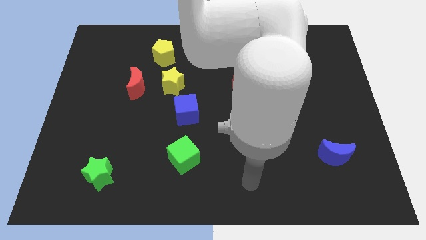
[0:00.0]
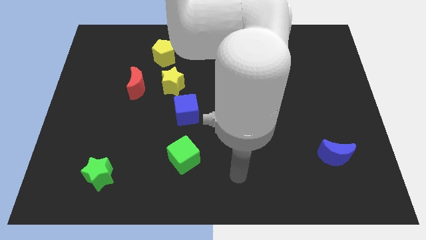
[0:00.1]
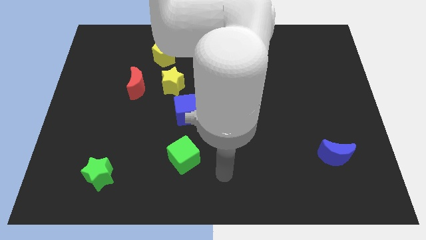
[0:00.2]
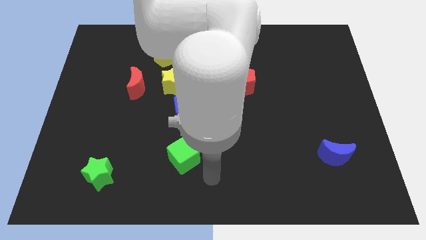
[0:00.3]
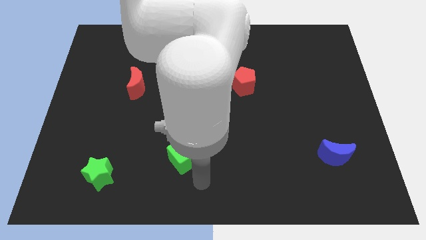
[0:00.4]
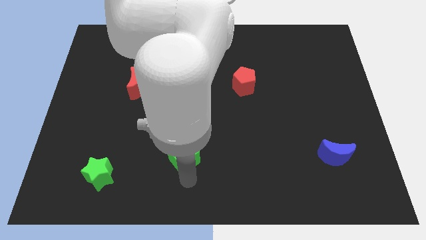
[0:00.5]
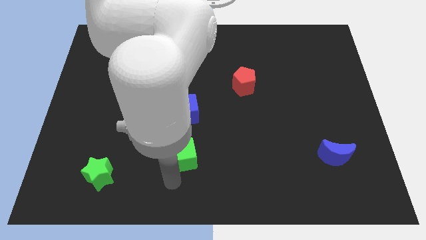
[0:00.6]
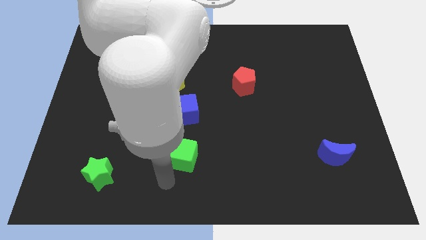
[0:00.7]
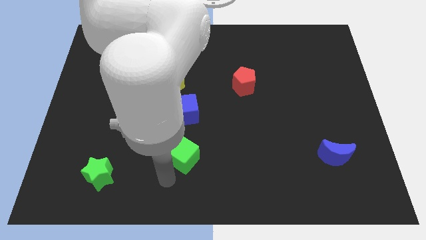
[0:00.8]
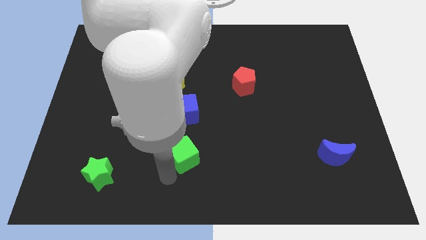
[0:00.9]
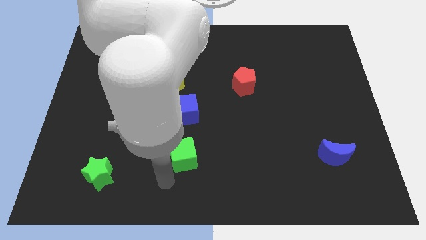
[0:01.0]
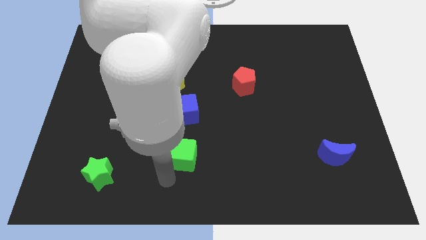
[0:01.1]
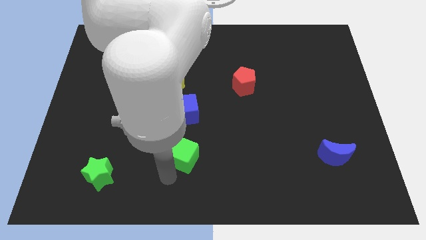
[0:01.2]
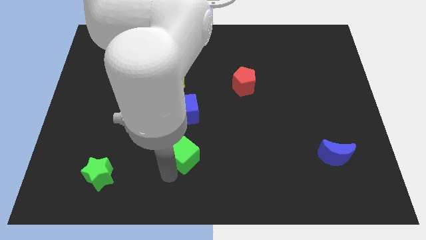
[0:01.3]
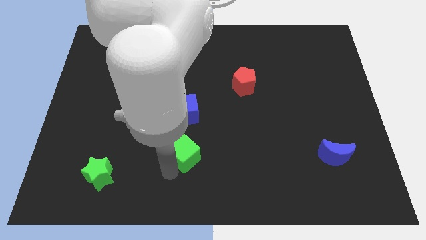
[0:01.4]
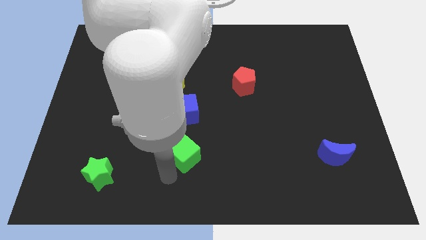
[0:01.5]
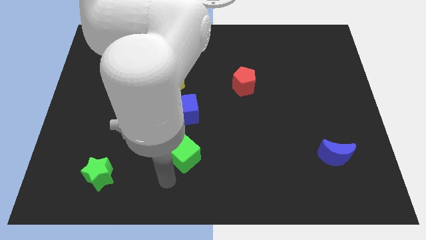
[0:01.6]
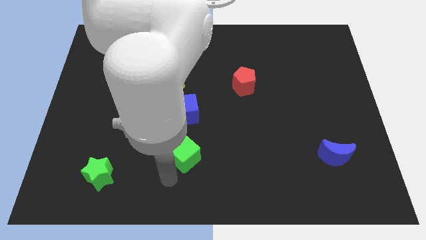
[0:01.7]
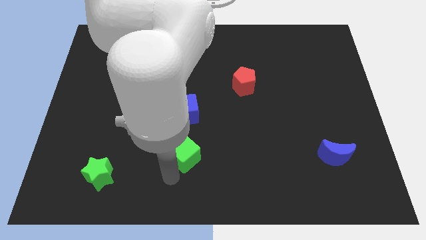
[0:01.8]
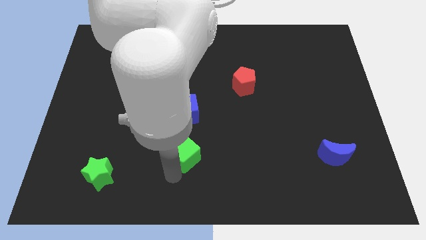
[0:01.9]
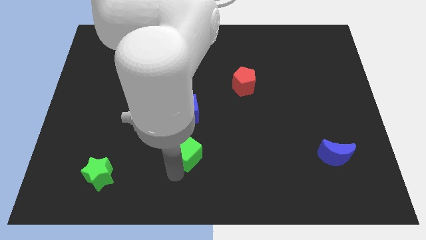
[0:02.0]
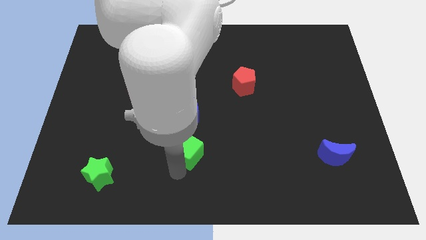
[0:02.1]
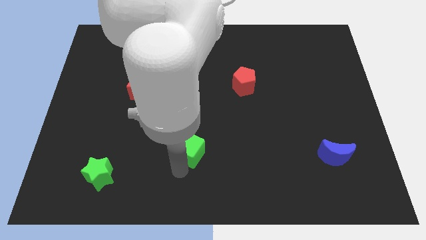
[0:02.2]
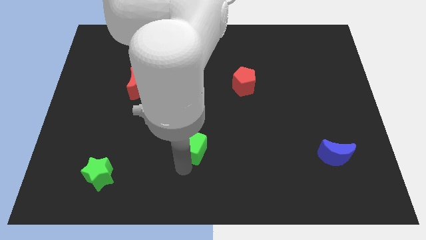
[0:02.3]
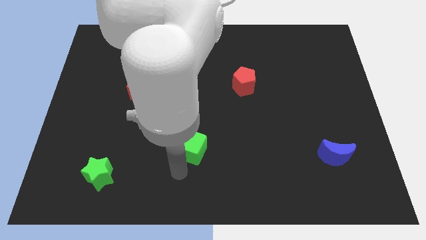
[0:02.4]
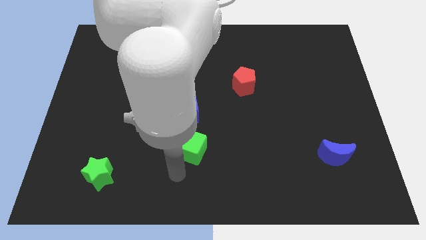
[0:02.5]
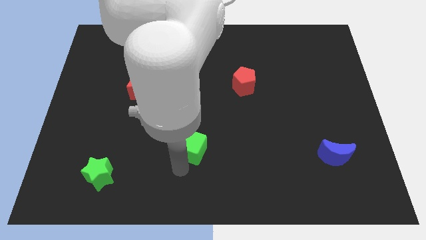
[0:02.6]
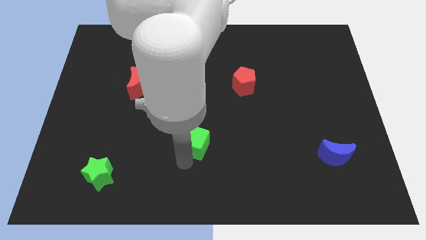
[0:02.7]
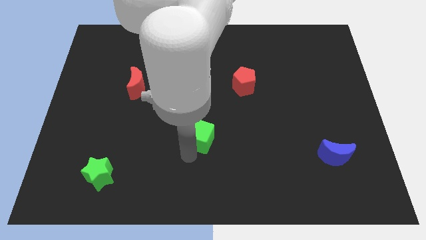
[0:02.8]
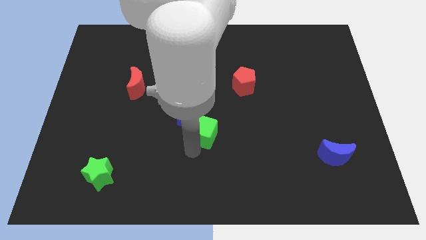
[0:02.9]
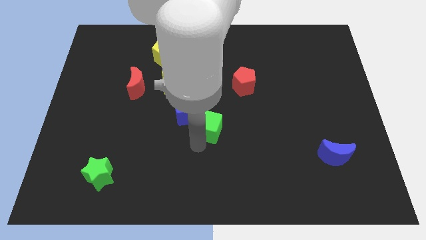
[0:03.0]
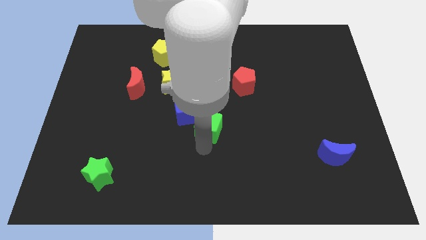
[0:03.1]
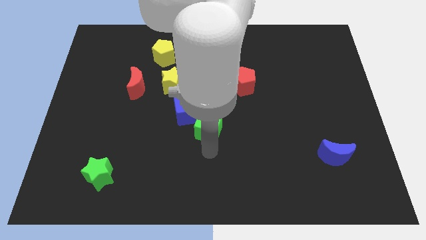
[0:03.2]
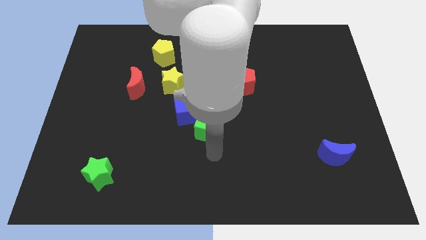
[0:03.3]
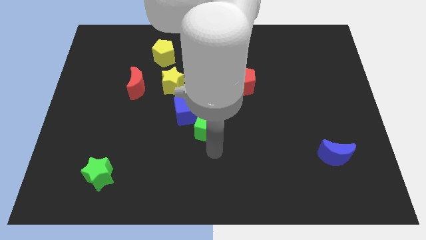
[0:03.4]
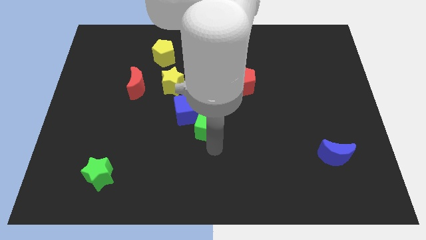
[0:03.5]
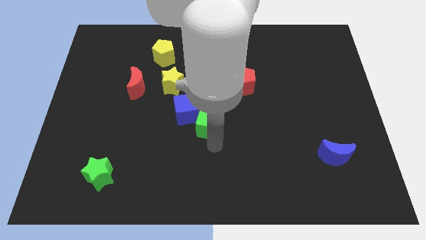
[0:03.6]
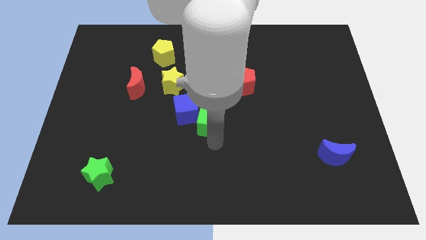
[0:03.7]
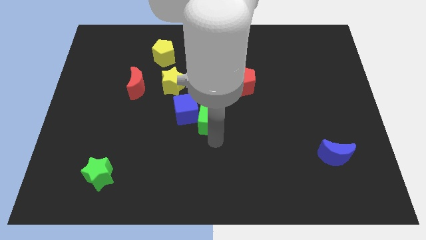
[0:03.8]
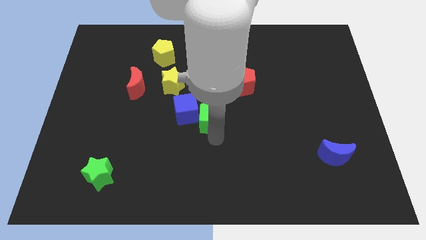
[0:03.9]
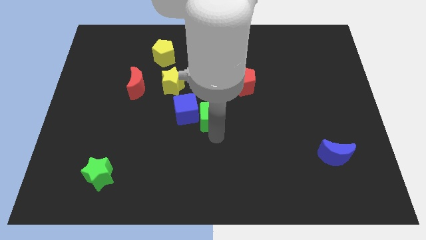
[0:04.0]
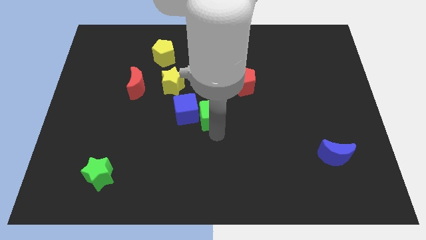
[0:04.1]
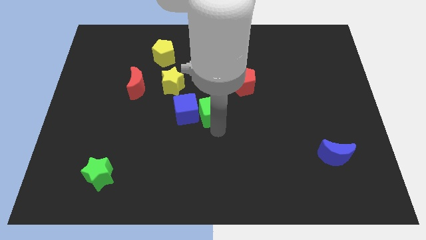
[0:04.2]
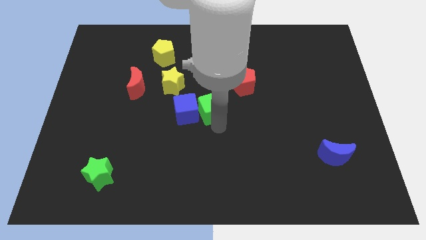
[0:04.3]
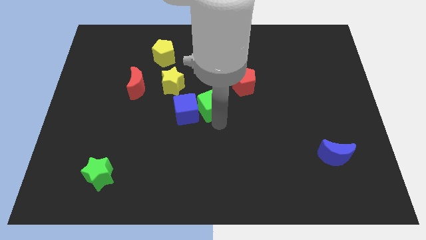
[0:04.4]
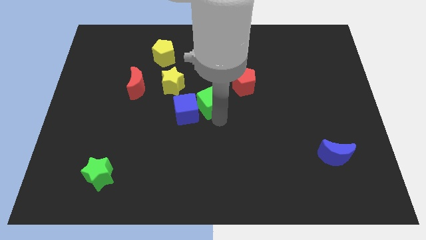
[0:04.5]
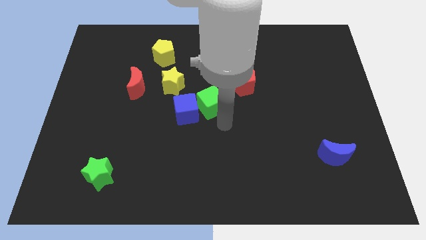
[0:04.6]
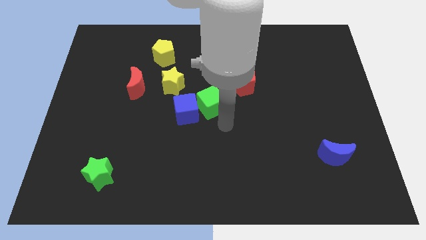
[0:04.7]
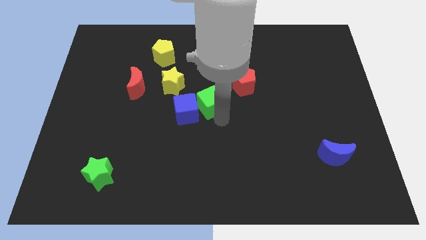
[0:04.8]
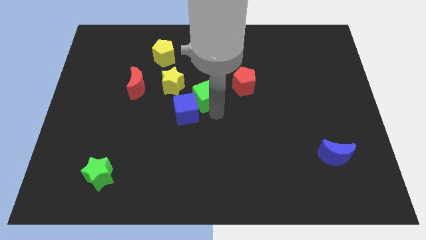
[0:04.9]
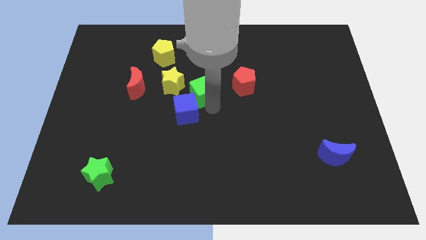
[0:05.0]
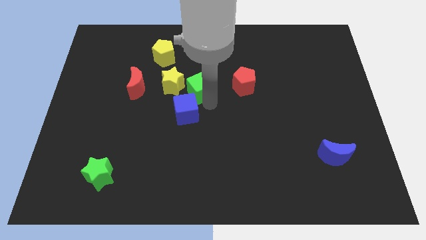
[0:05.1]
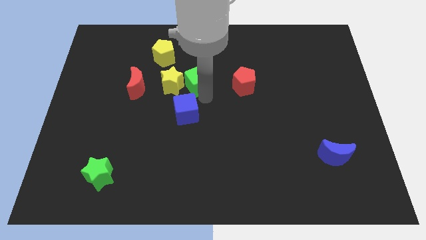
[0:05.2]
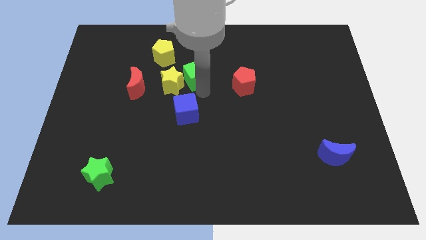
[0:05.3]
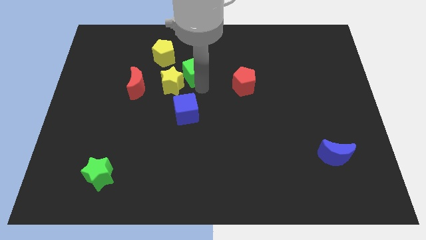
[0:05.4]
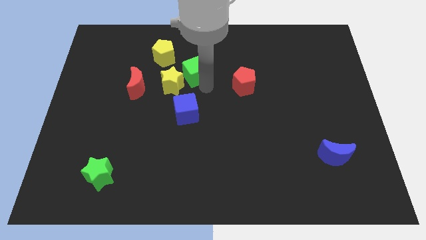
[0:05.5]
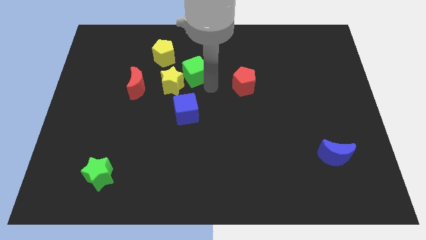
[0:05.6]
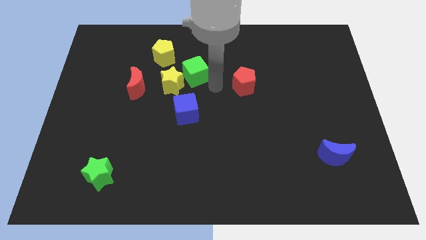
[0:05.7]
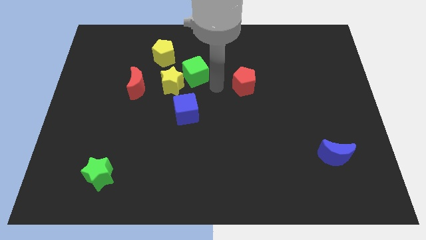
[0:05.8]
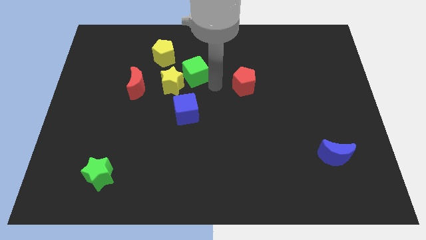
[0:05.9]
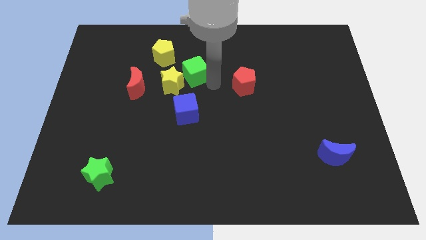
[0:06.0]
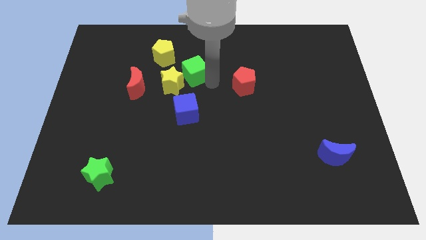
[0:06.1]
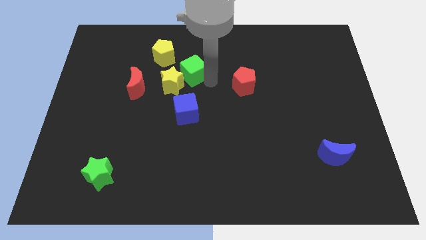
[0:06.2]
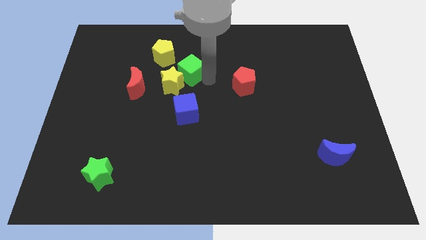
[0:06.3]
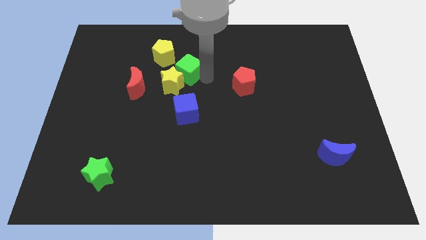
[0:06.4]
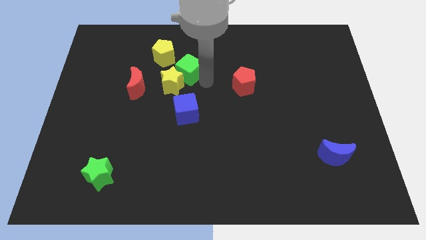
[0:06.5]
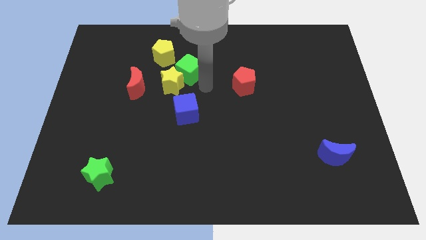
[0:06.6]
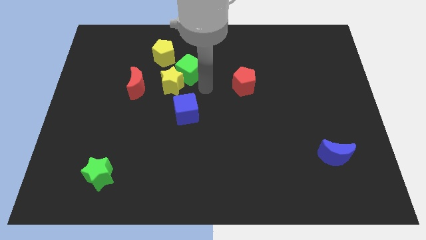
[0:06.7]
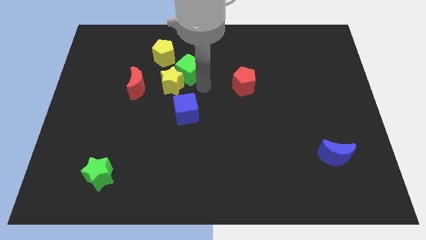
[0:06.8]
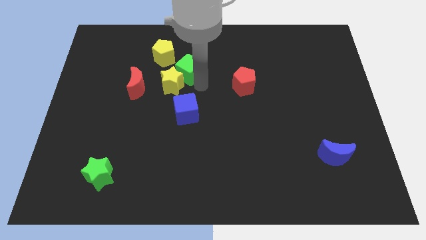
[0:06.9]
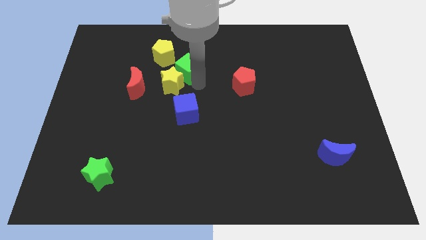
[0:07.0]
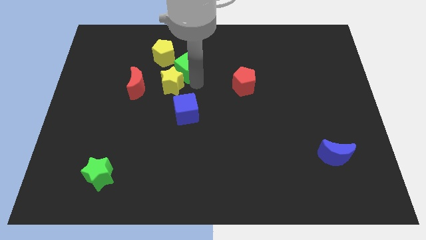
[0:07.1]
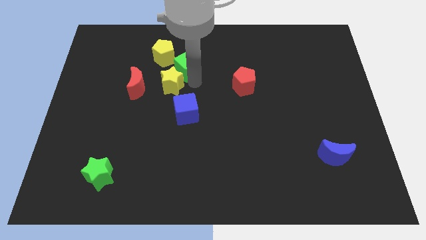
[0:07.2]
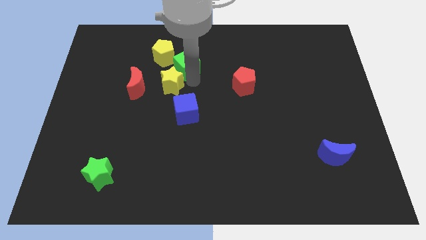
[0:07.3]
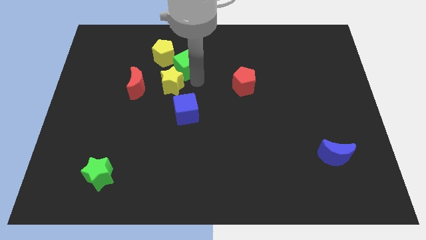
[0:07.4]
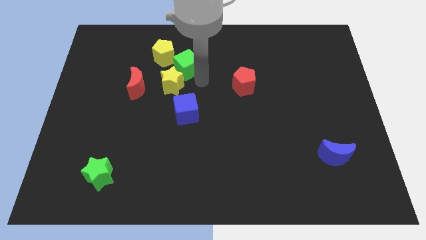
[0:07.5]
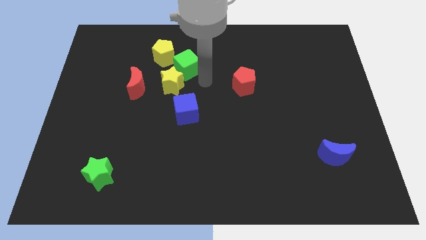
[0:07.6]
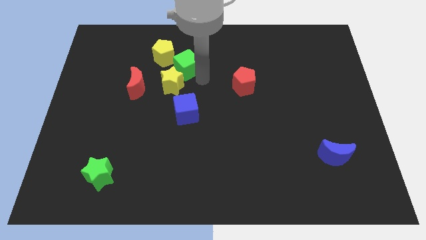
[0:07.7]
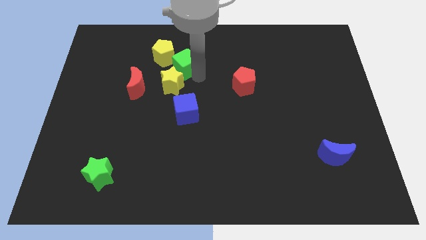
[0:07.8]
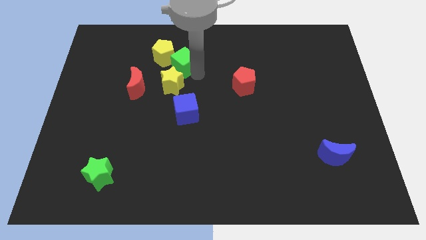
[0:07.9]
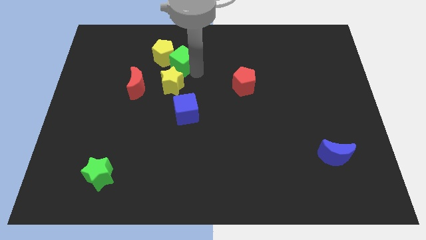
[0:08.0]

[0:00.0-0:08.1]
move the green cube towards the yellow pentagon
